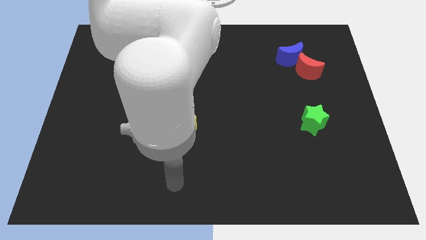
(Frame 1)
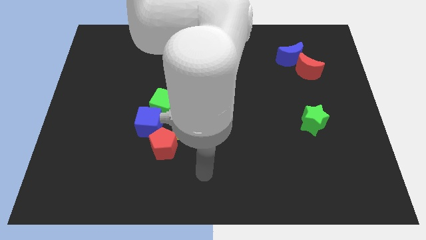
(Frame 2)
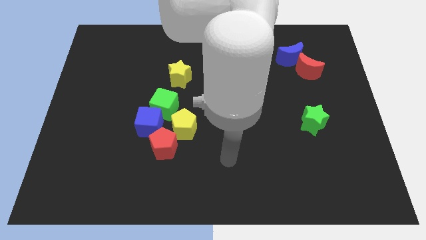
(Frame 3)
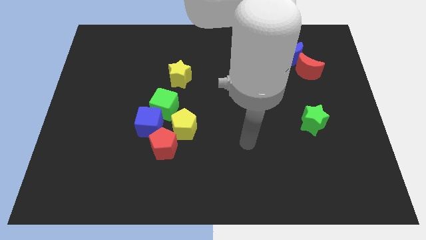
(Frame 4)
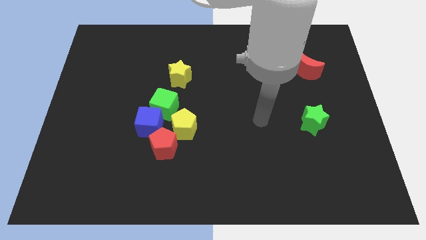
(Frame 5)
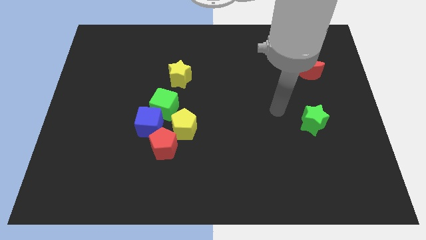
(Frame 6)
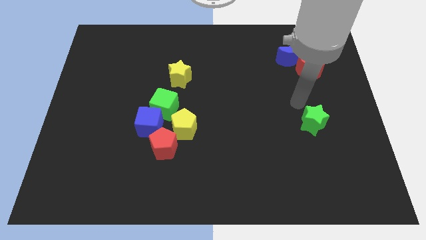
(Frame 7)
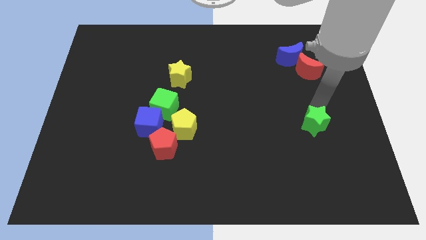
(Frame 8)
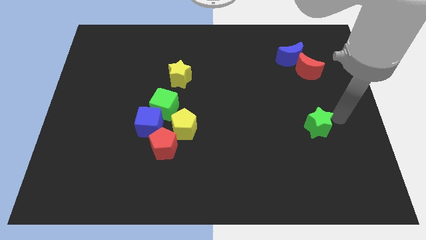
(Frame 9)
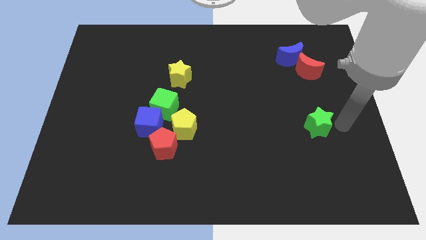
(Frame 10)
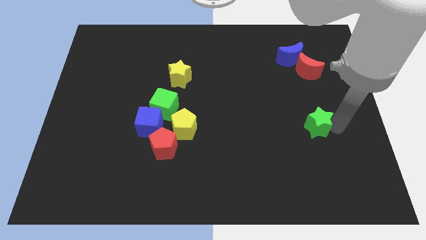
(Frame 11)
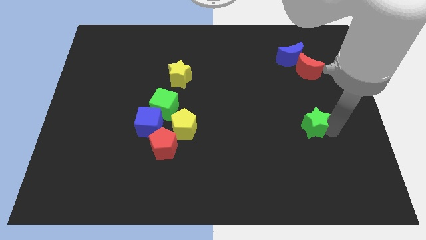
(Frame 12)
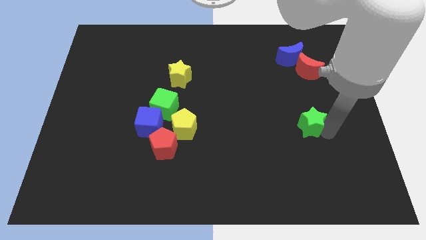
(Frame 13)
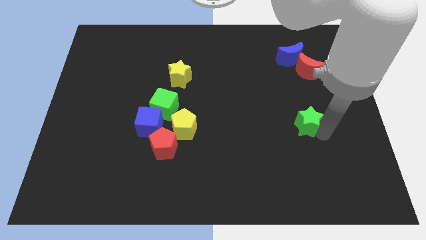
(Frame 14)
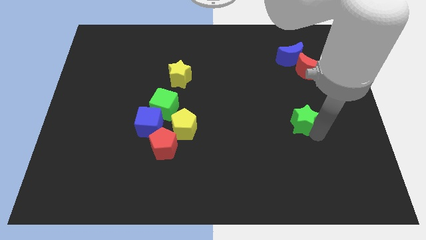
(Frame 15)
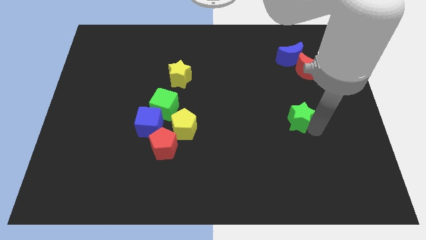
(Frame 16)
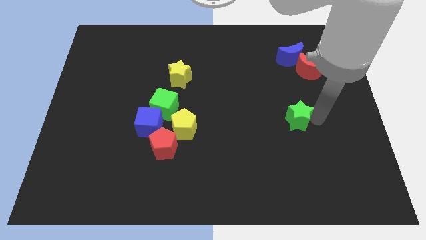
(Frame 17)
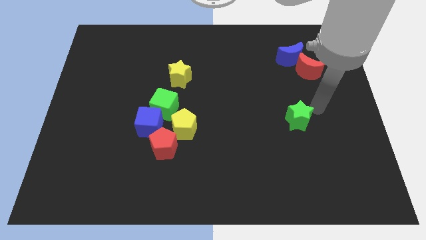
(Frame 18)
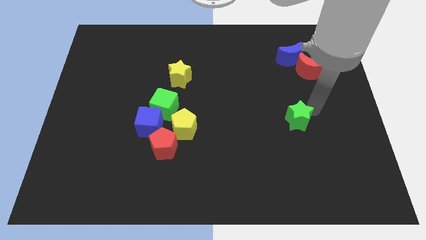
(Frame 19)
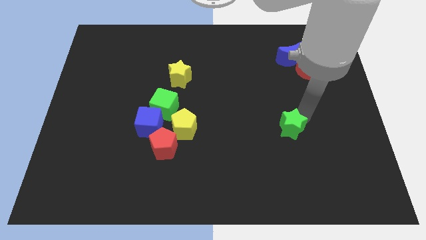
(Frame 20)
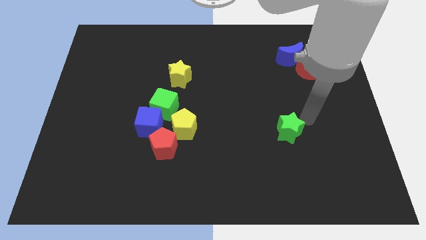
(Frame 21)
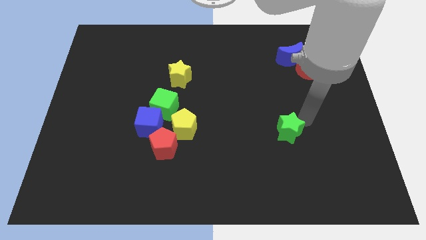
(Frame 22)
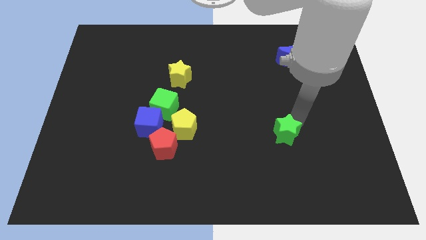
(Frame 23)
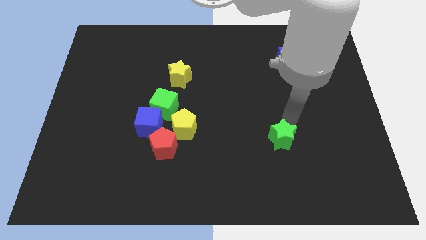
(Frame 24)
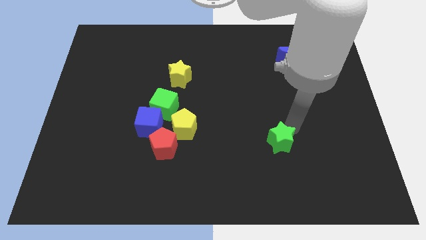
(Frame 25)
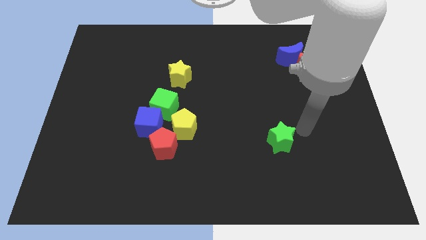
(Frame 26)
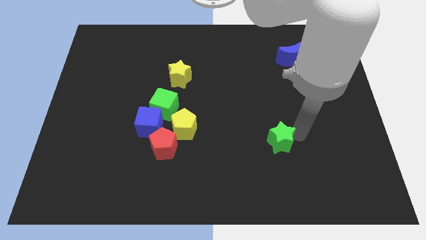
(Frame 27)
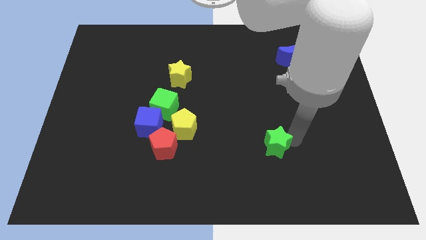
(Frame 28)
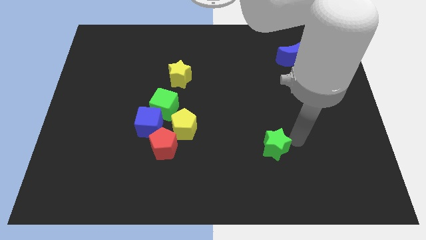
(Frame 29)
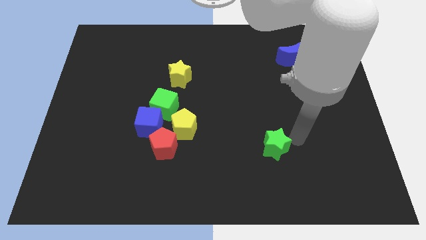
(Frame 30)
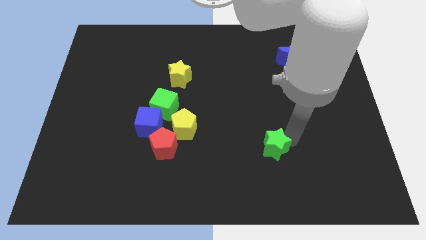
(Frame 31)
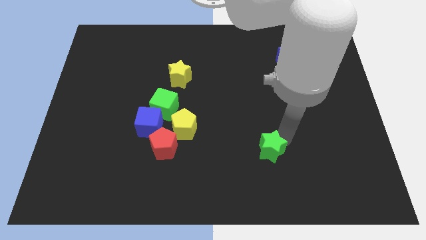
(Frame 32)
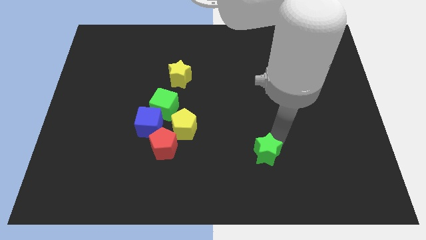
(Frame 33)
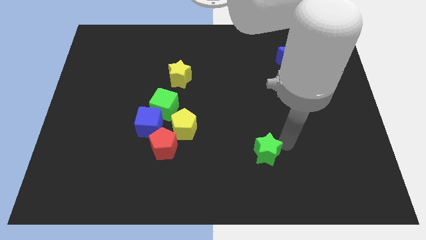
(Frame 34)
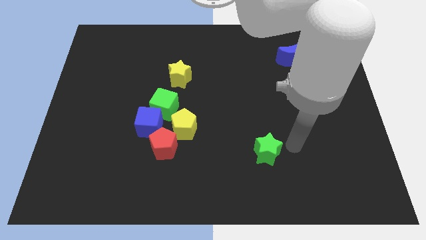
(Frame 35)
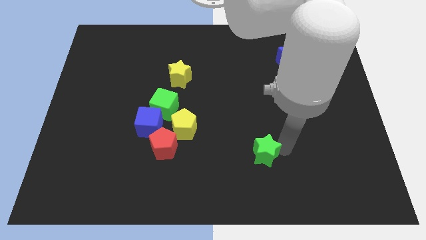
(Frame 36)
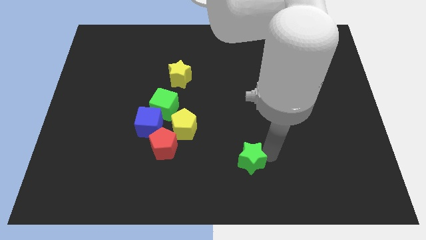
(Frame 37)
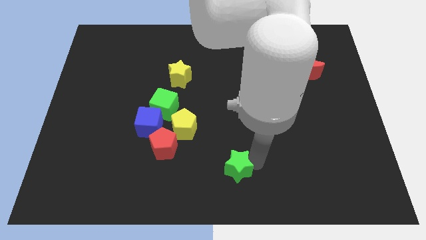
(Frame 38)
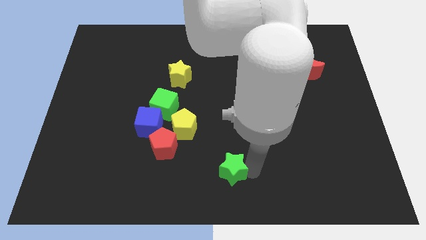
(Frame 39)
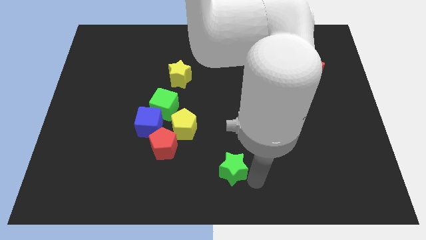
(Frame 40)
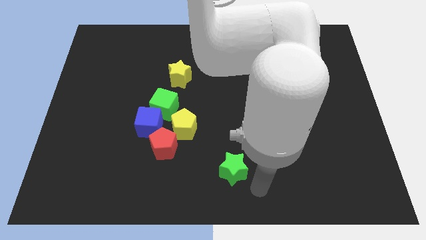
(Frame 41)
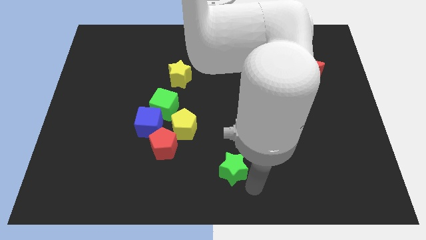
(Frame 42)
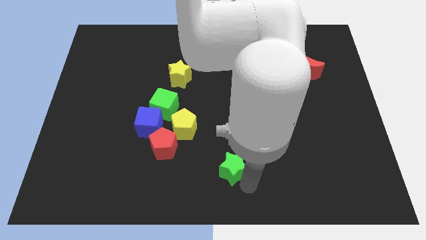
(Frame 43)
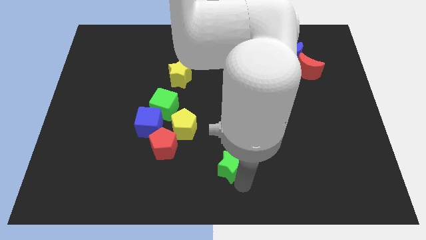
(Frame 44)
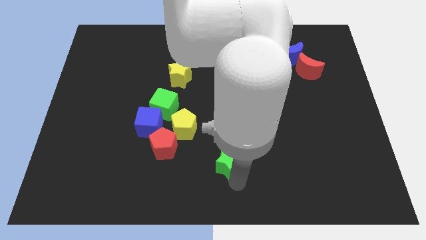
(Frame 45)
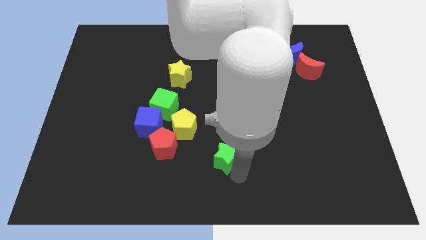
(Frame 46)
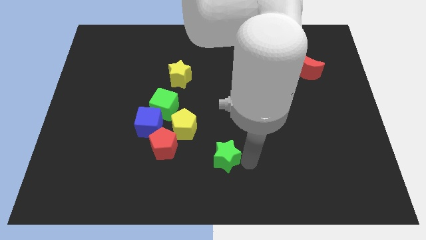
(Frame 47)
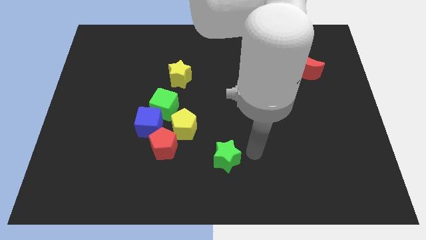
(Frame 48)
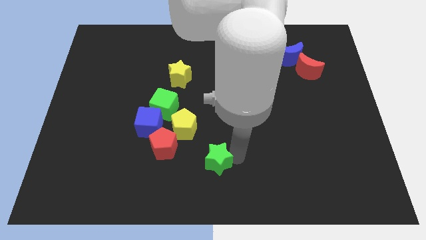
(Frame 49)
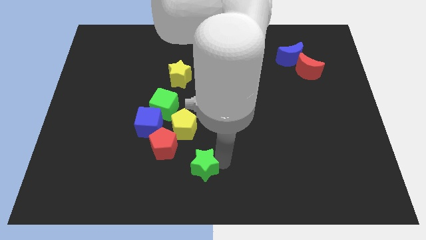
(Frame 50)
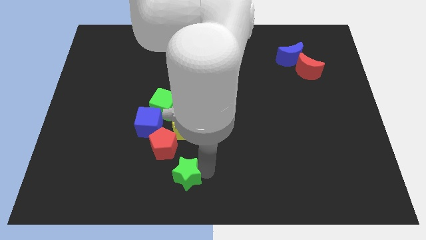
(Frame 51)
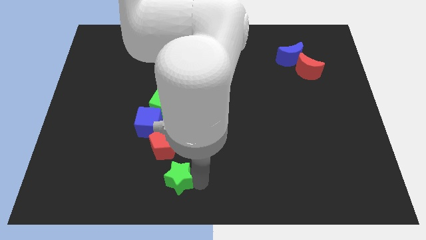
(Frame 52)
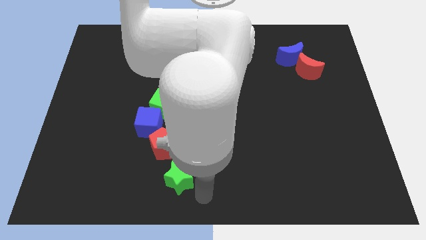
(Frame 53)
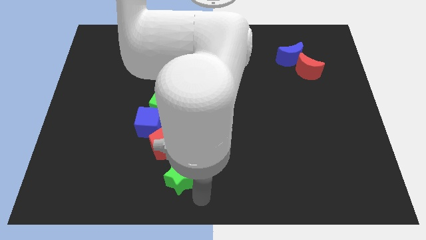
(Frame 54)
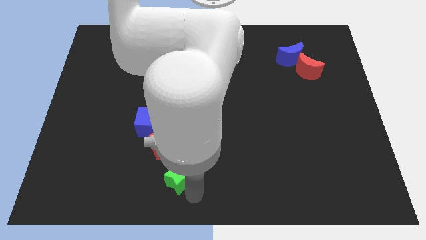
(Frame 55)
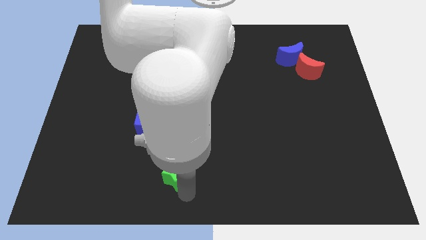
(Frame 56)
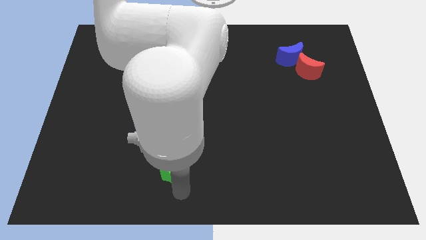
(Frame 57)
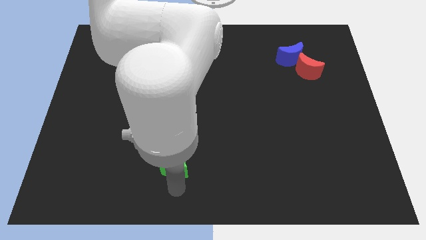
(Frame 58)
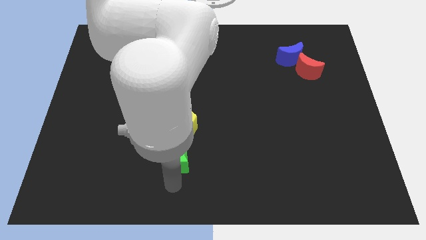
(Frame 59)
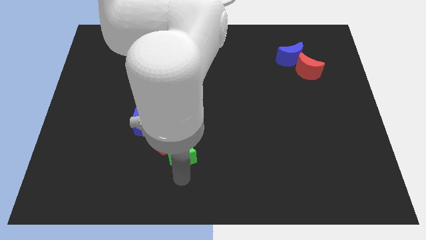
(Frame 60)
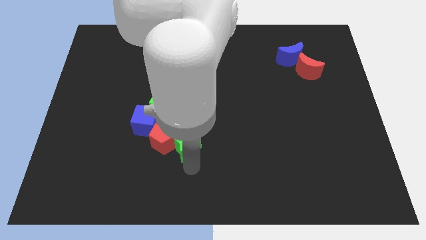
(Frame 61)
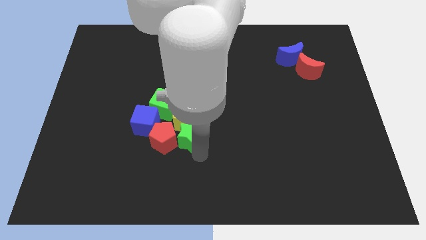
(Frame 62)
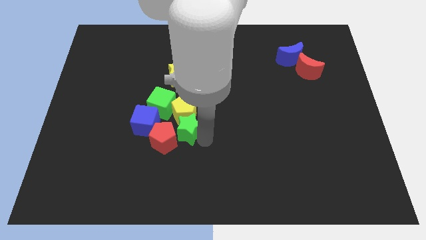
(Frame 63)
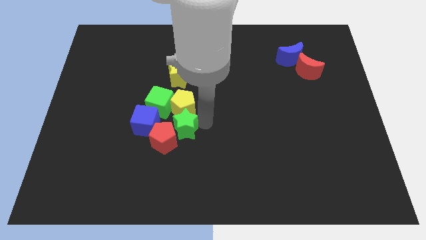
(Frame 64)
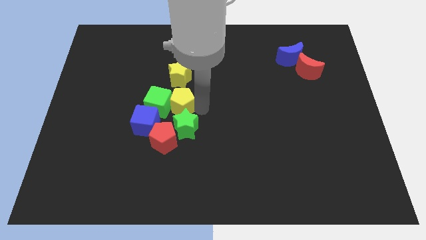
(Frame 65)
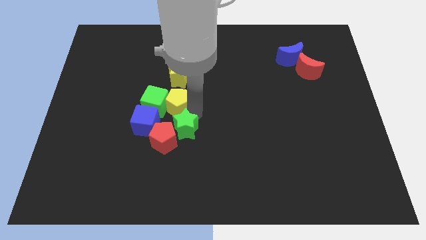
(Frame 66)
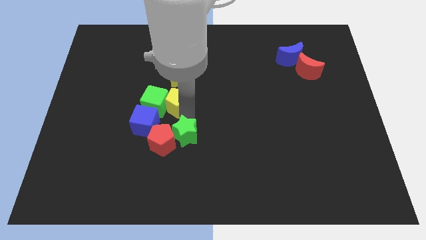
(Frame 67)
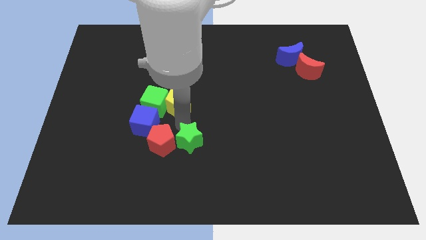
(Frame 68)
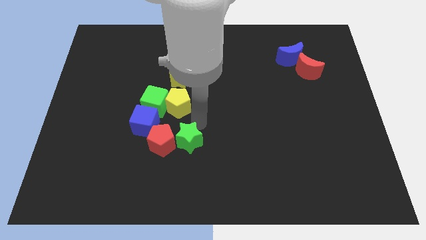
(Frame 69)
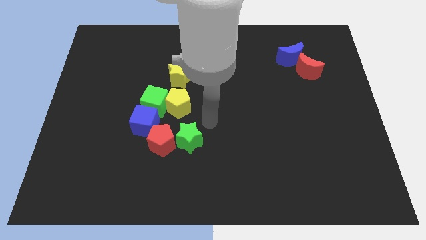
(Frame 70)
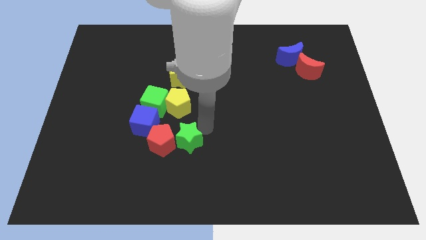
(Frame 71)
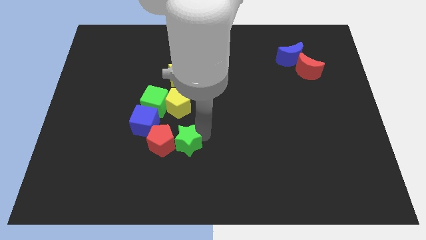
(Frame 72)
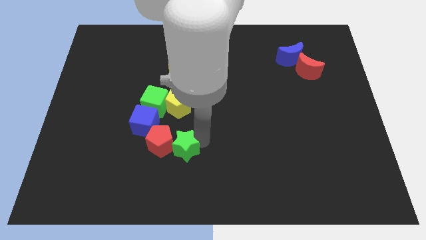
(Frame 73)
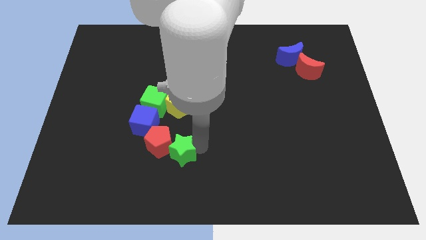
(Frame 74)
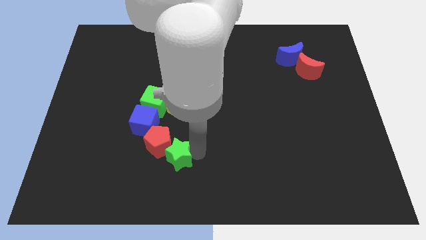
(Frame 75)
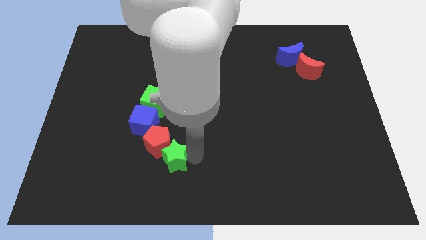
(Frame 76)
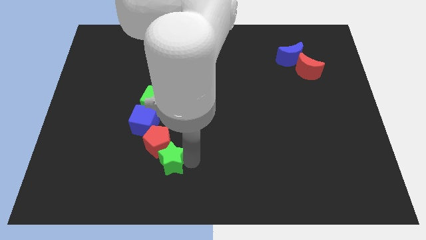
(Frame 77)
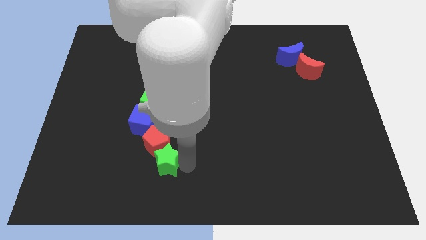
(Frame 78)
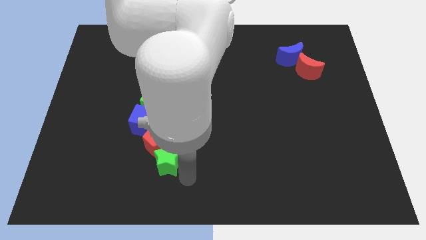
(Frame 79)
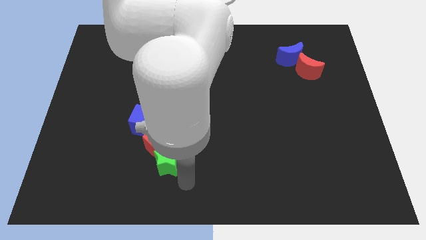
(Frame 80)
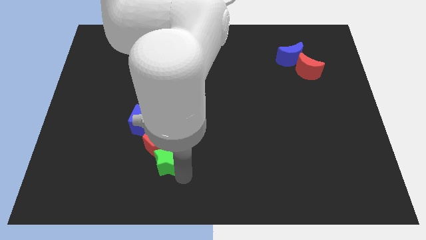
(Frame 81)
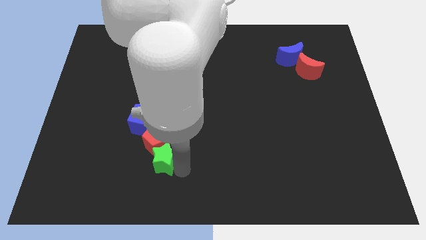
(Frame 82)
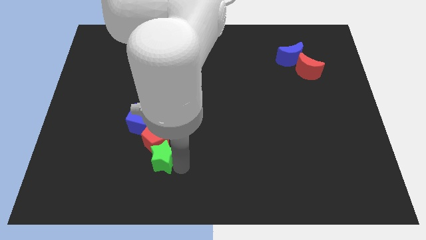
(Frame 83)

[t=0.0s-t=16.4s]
push the green star below the green cube
